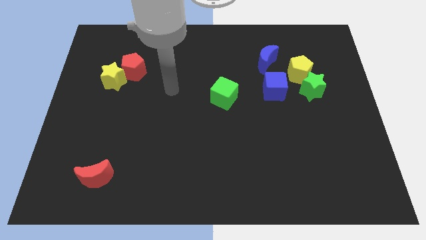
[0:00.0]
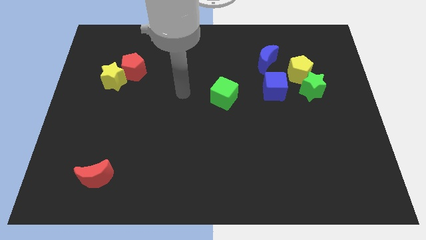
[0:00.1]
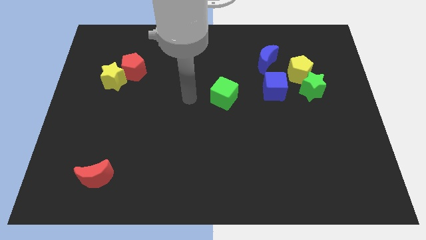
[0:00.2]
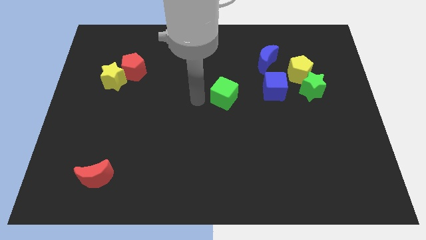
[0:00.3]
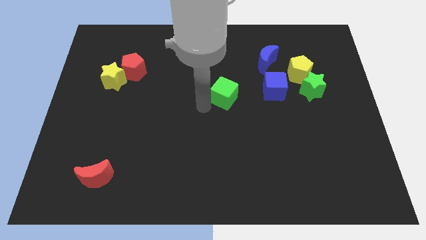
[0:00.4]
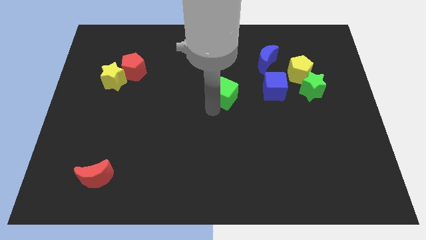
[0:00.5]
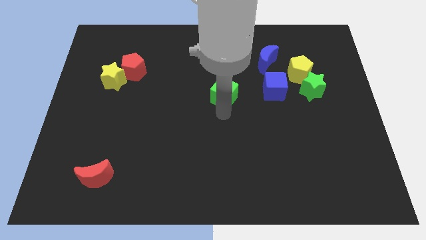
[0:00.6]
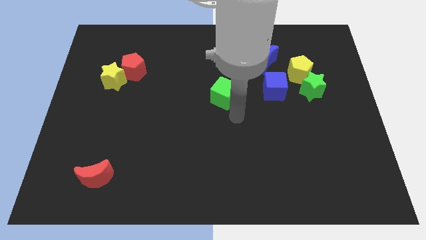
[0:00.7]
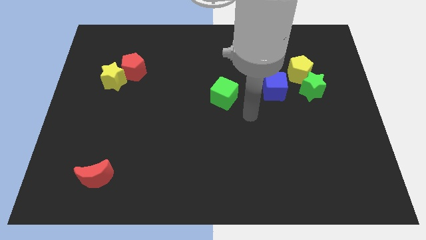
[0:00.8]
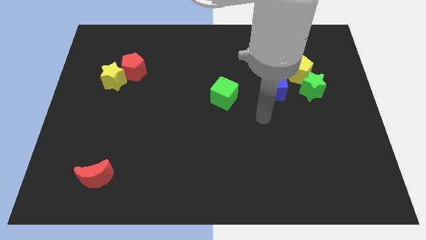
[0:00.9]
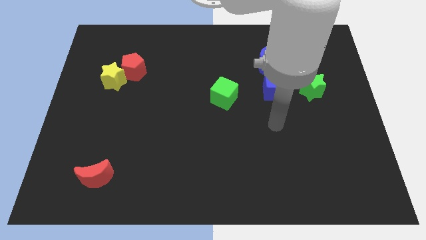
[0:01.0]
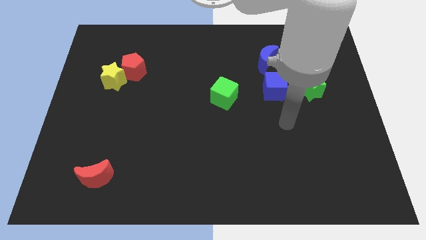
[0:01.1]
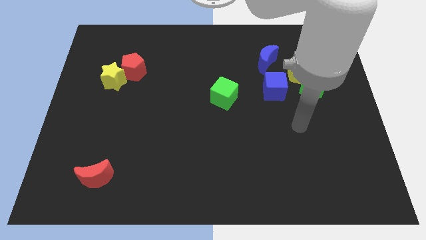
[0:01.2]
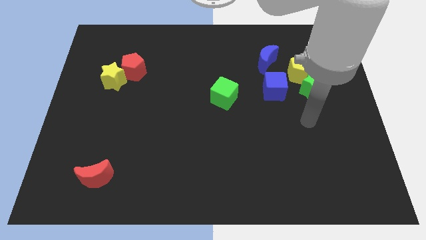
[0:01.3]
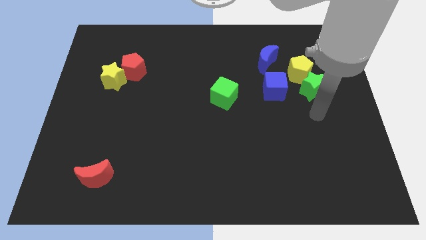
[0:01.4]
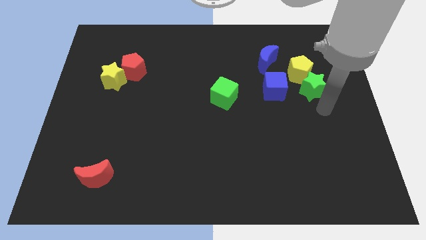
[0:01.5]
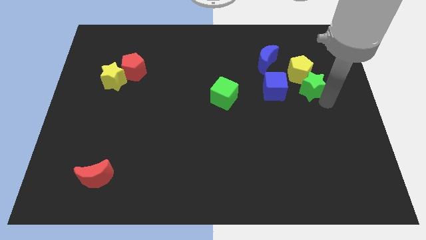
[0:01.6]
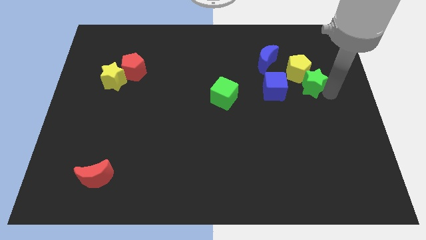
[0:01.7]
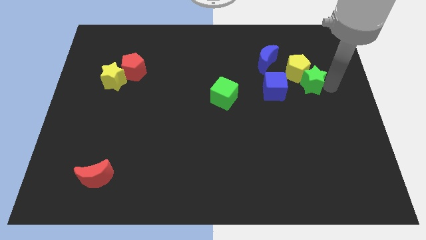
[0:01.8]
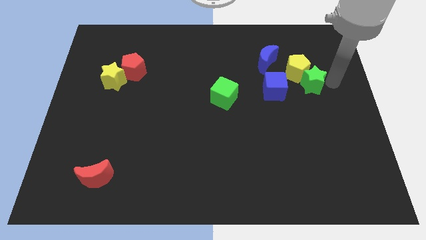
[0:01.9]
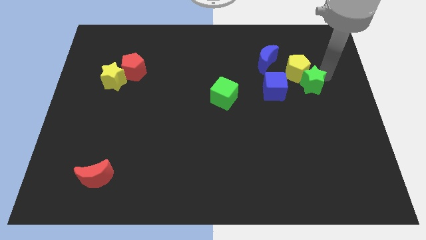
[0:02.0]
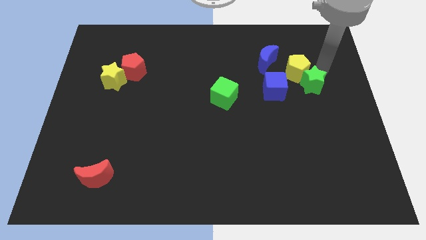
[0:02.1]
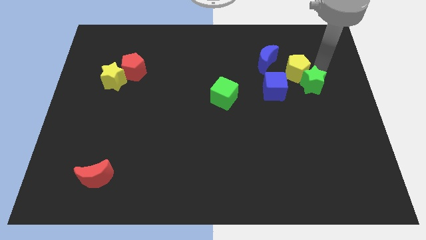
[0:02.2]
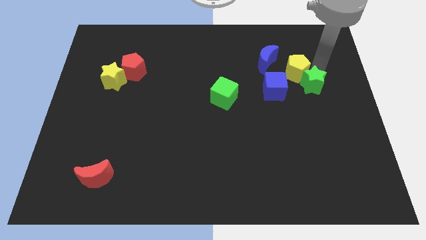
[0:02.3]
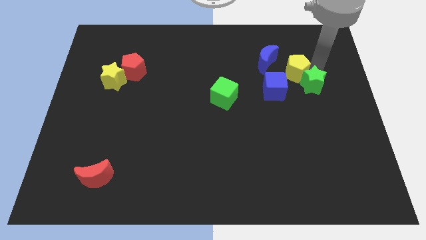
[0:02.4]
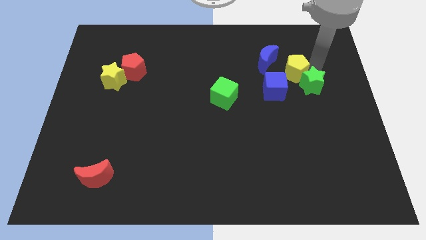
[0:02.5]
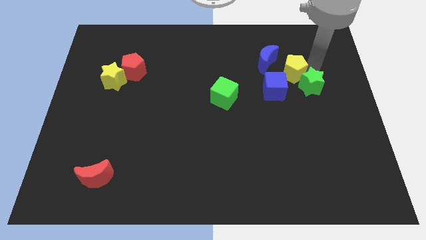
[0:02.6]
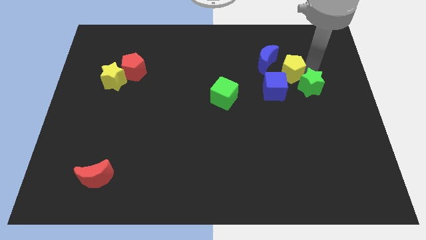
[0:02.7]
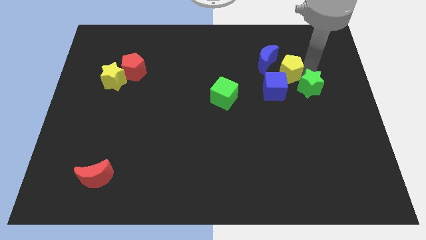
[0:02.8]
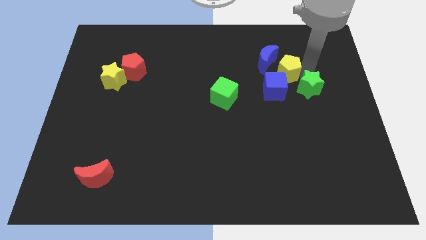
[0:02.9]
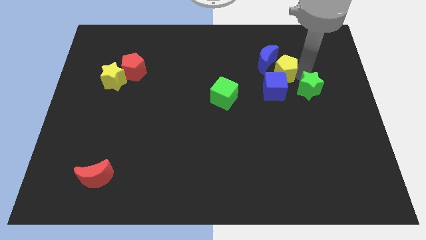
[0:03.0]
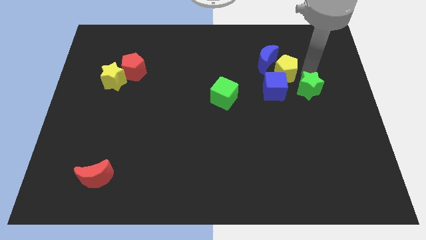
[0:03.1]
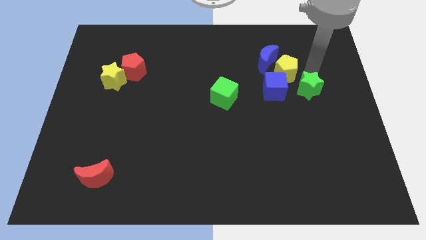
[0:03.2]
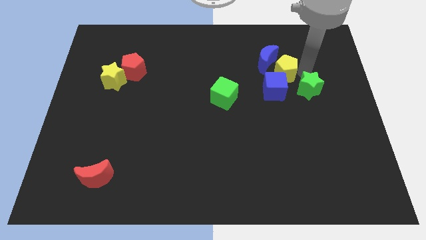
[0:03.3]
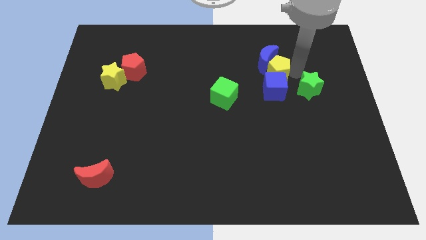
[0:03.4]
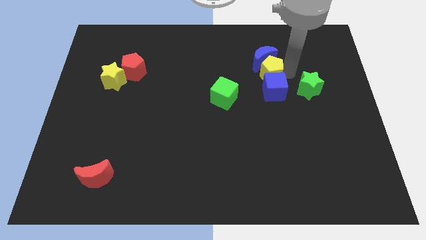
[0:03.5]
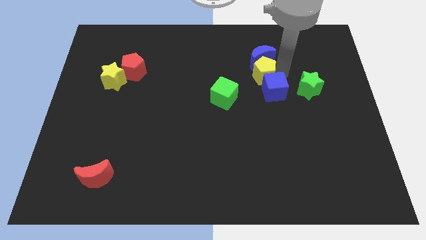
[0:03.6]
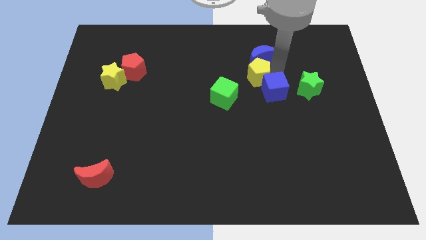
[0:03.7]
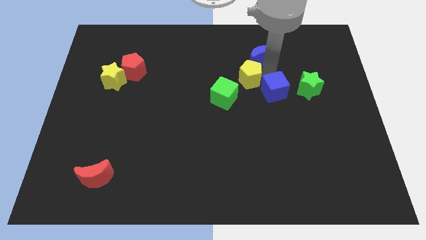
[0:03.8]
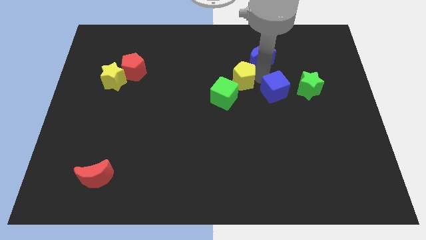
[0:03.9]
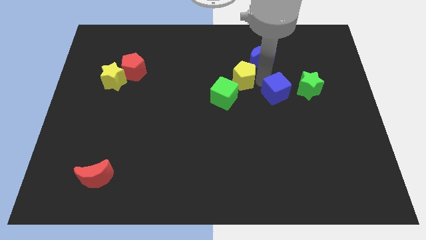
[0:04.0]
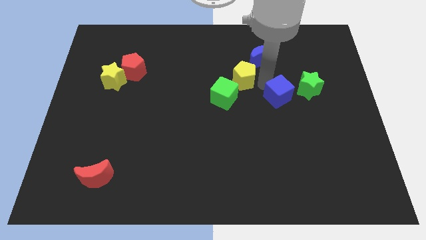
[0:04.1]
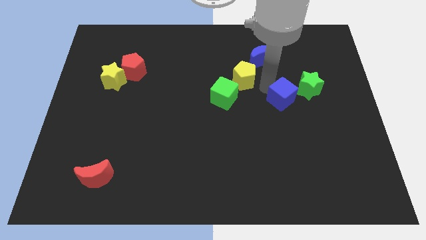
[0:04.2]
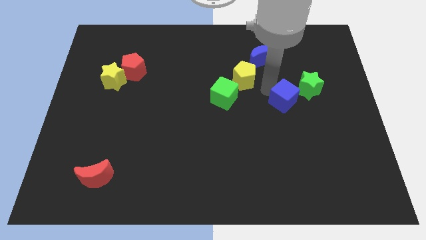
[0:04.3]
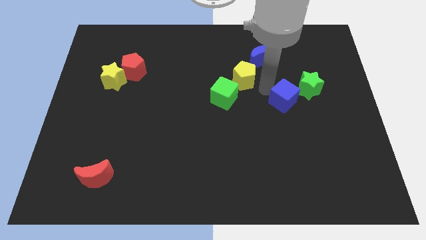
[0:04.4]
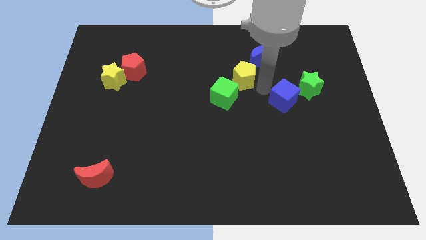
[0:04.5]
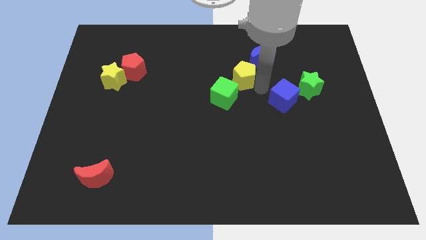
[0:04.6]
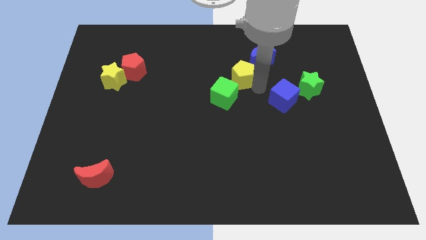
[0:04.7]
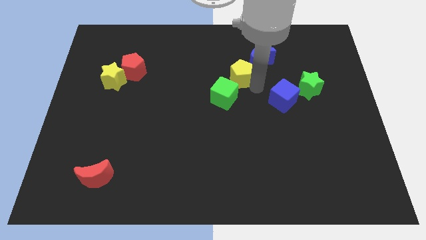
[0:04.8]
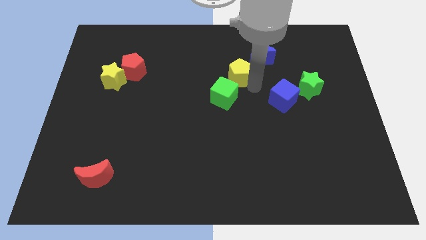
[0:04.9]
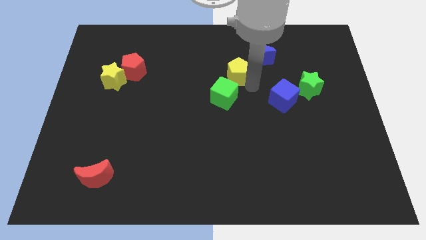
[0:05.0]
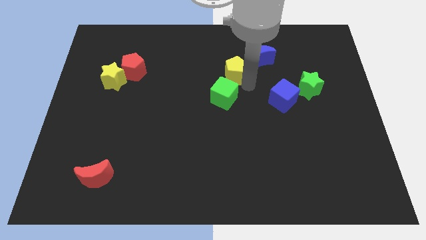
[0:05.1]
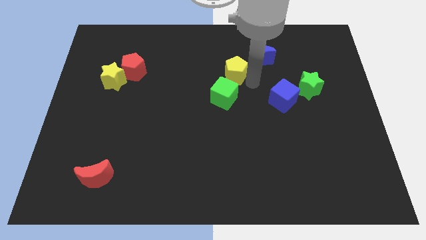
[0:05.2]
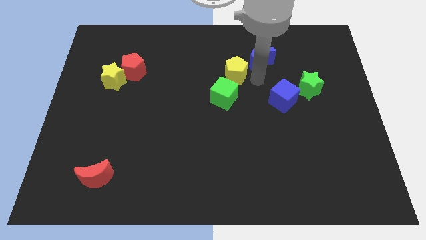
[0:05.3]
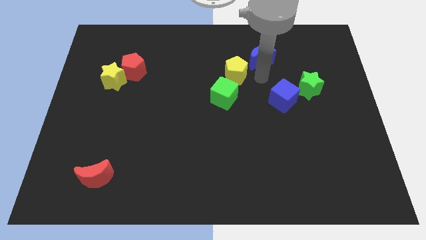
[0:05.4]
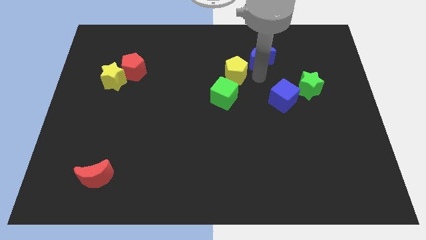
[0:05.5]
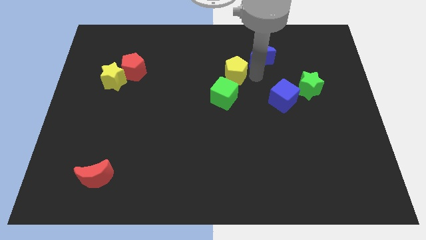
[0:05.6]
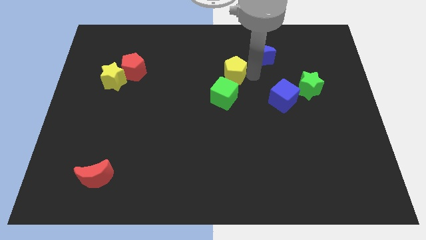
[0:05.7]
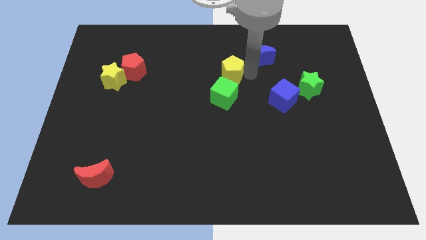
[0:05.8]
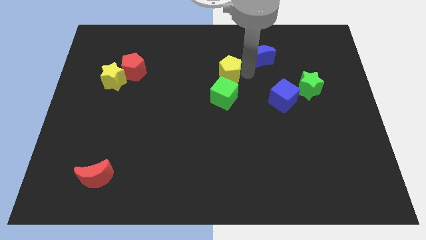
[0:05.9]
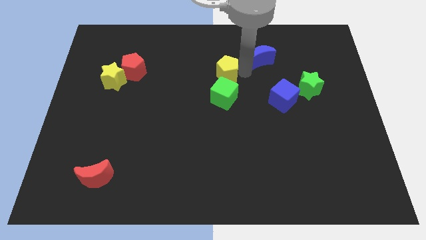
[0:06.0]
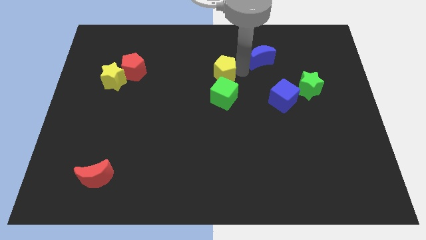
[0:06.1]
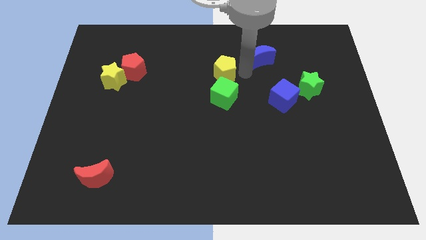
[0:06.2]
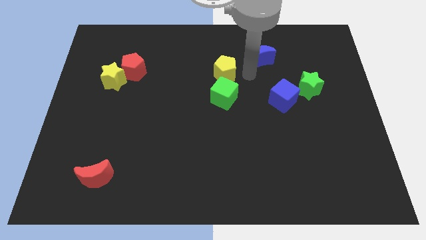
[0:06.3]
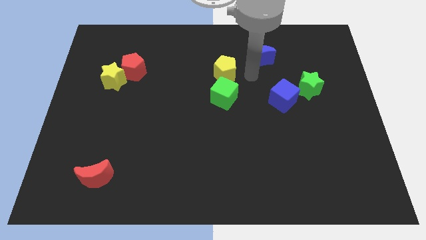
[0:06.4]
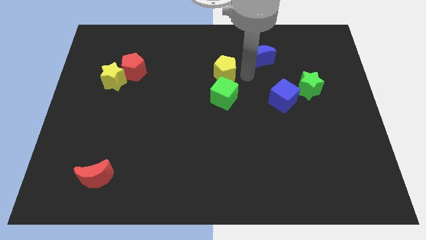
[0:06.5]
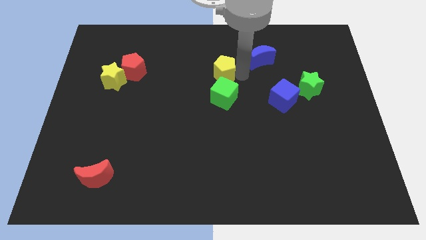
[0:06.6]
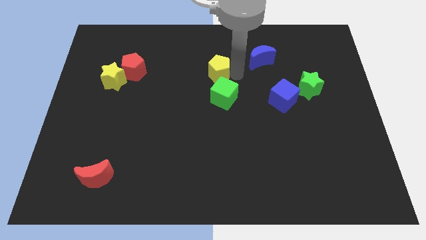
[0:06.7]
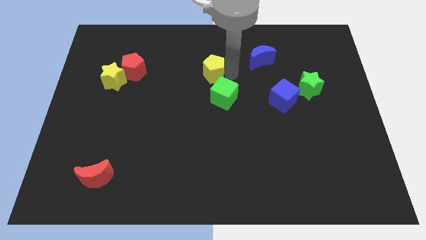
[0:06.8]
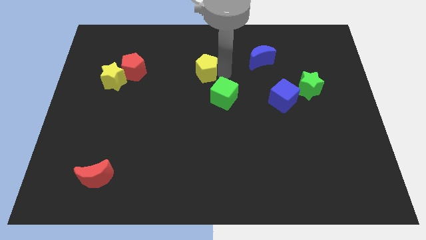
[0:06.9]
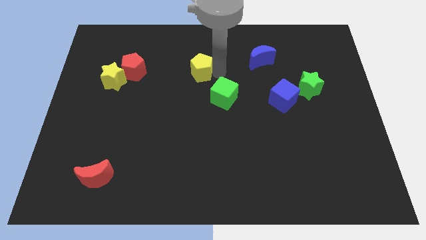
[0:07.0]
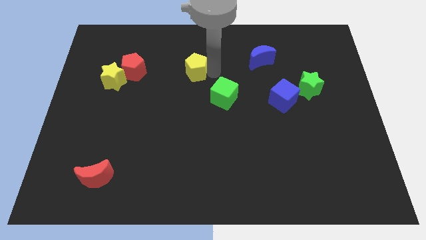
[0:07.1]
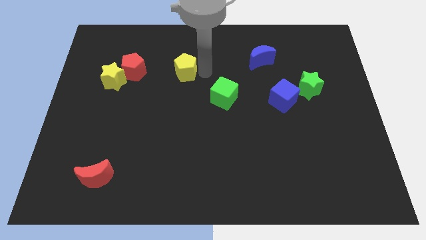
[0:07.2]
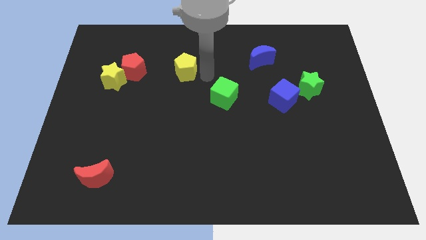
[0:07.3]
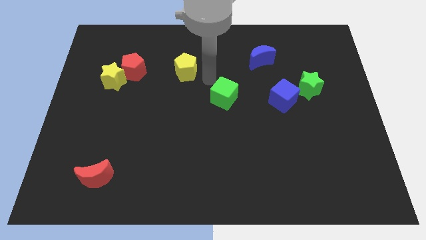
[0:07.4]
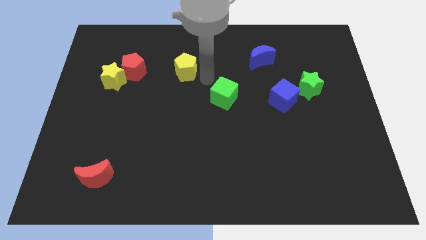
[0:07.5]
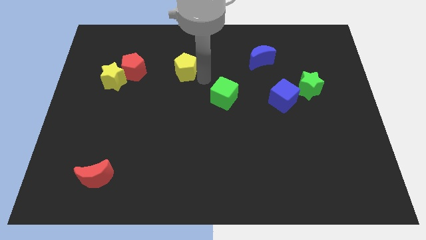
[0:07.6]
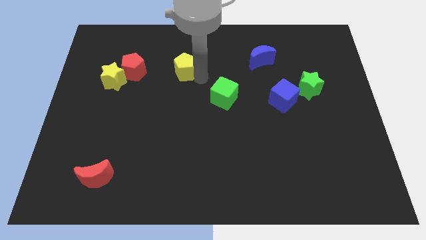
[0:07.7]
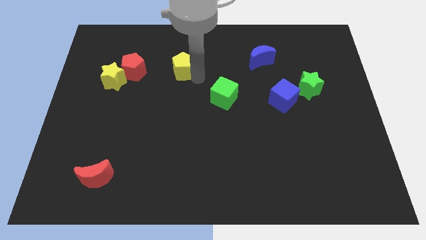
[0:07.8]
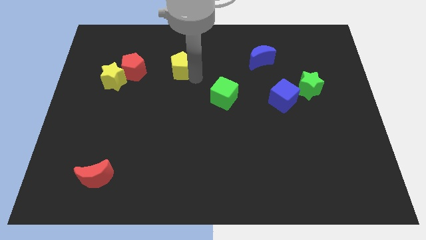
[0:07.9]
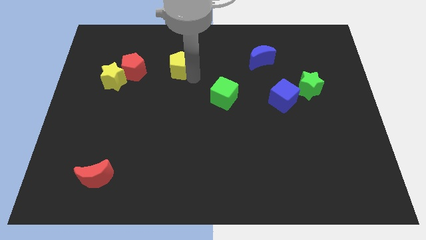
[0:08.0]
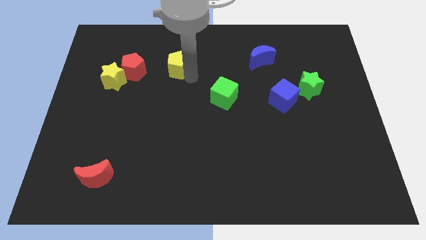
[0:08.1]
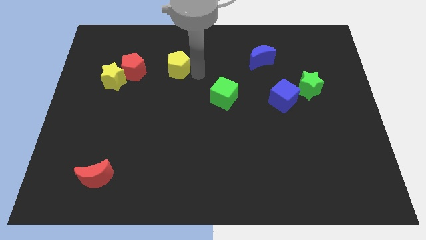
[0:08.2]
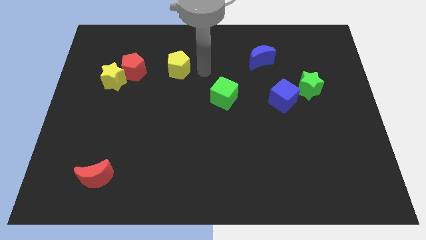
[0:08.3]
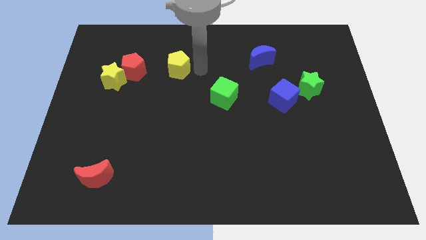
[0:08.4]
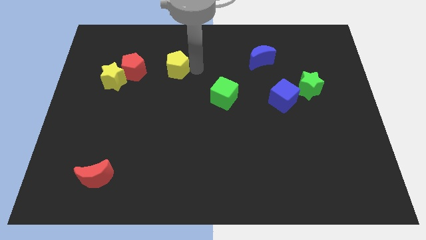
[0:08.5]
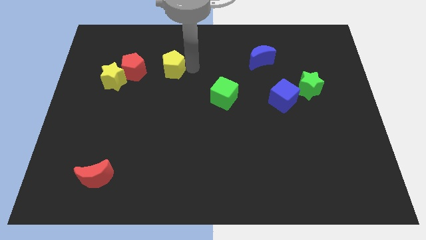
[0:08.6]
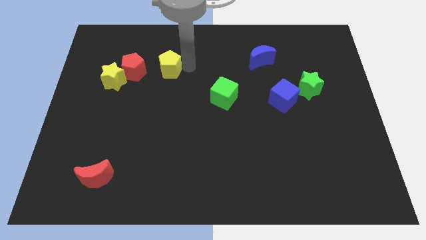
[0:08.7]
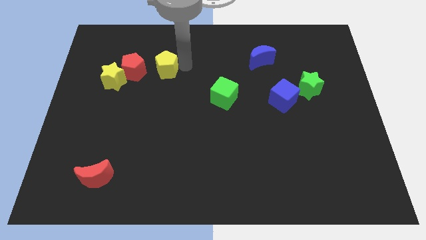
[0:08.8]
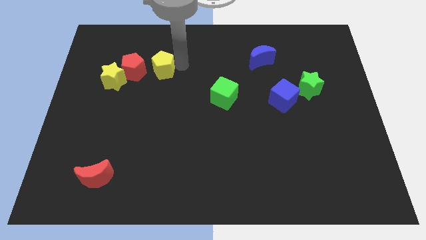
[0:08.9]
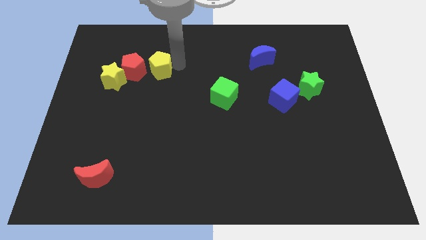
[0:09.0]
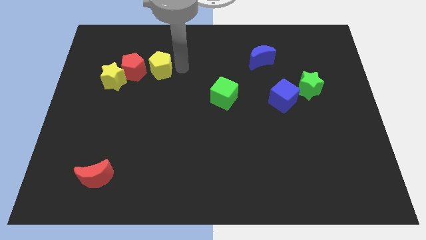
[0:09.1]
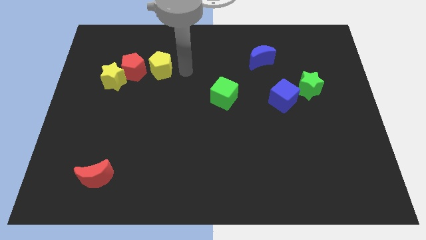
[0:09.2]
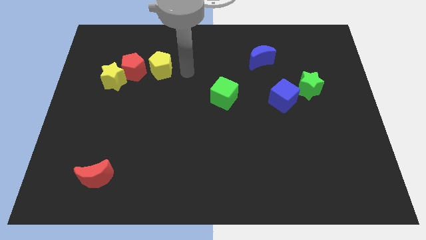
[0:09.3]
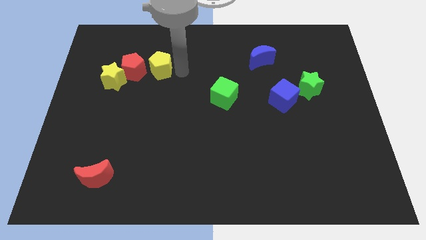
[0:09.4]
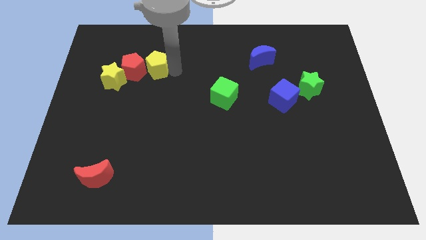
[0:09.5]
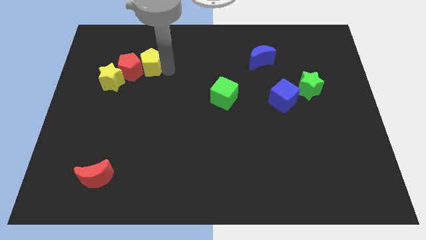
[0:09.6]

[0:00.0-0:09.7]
move the yellow pentagon diagonally up and to the right of the yellow star
